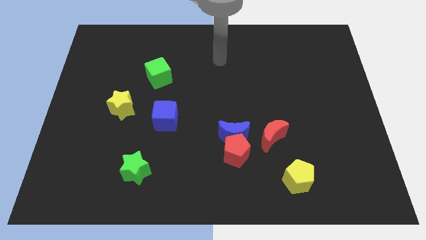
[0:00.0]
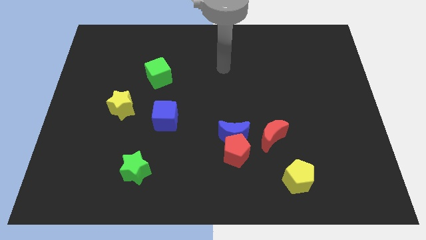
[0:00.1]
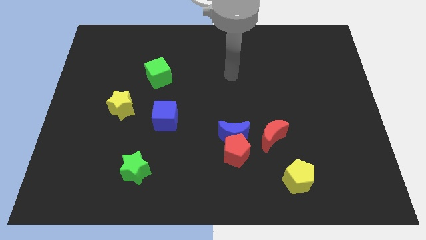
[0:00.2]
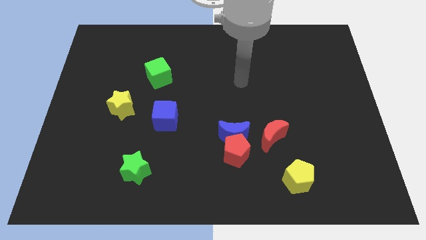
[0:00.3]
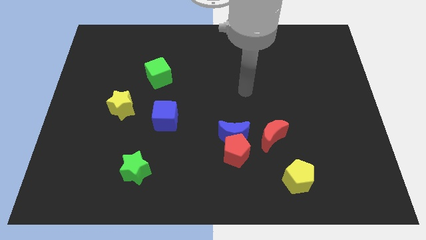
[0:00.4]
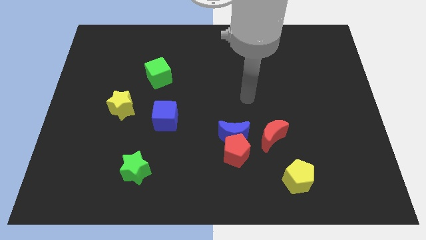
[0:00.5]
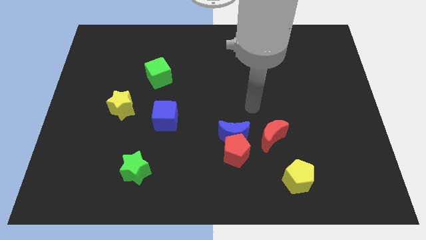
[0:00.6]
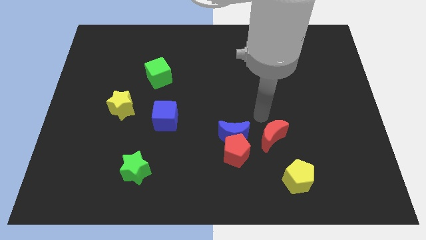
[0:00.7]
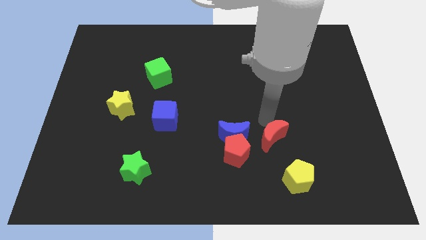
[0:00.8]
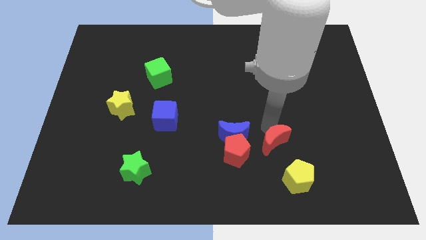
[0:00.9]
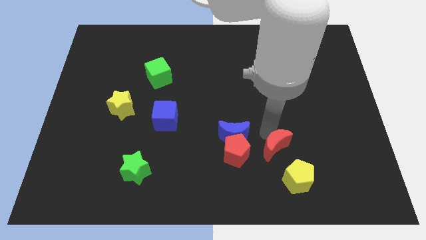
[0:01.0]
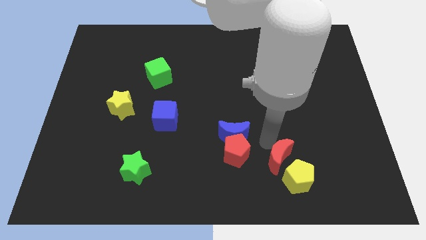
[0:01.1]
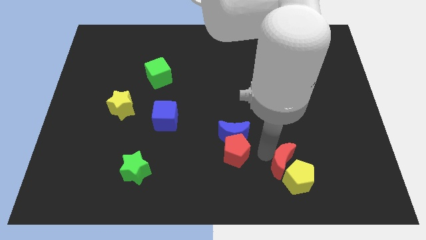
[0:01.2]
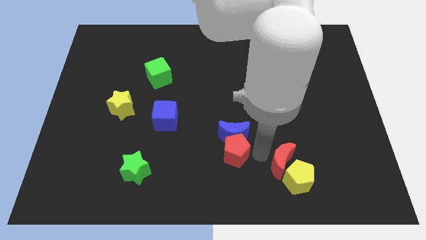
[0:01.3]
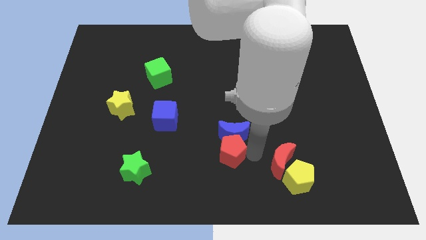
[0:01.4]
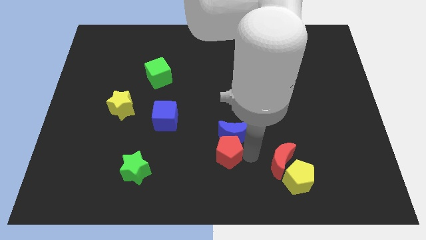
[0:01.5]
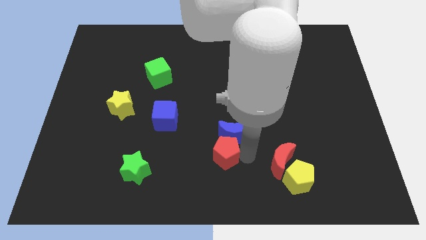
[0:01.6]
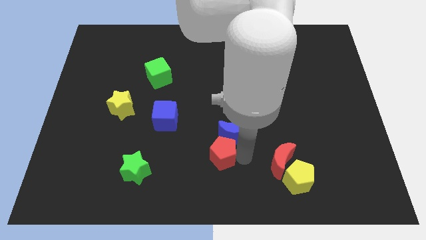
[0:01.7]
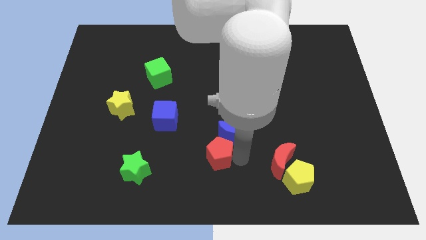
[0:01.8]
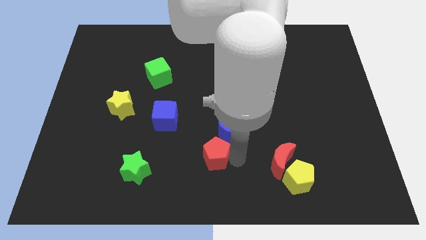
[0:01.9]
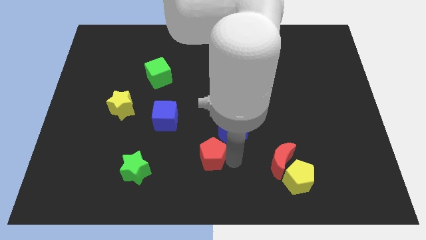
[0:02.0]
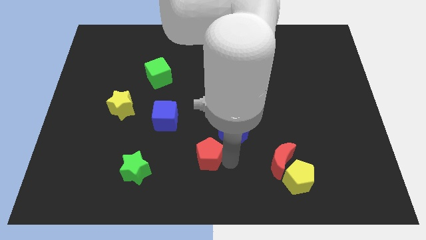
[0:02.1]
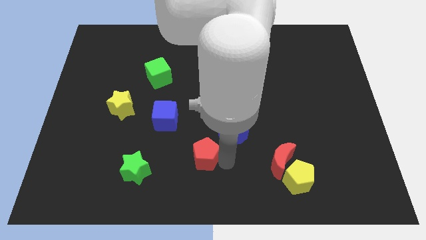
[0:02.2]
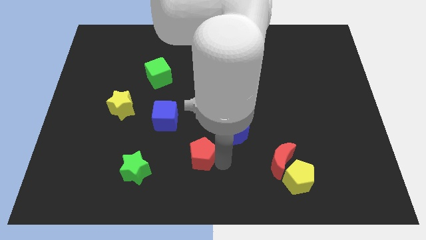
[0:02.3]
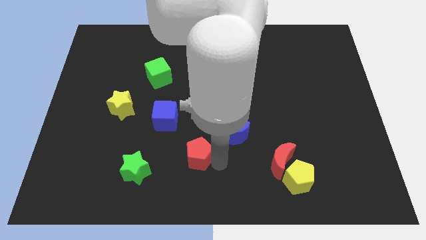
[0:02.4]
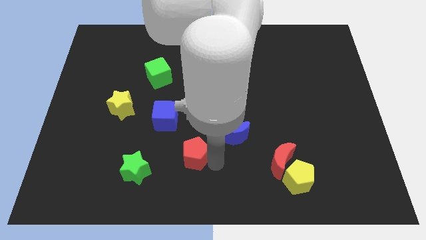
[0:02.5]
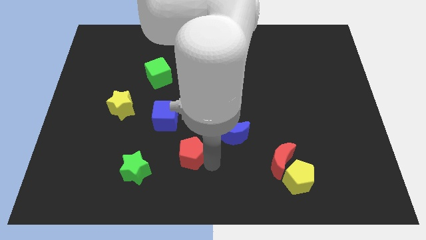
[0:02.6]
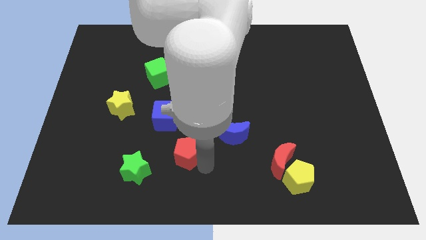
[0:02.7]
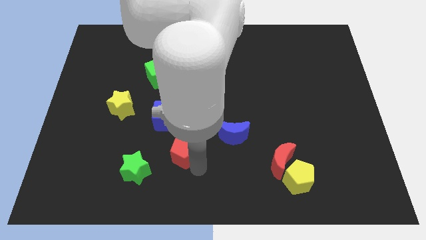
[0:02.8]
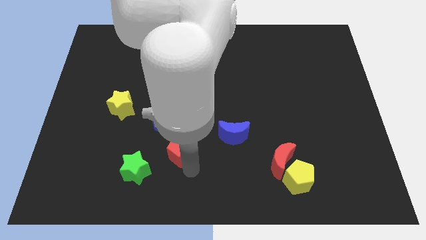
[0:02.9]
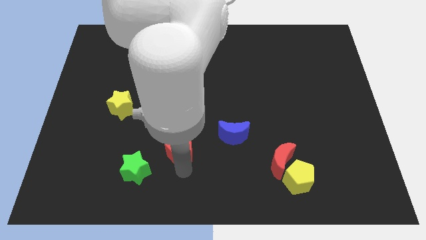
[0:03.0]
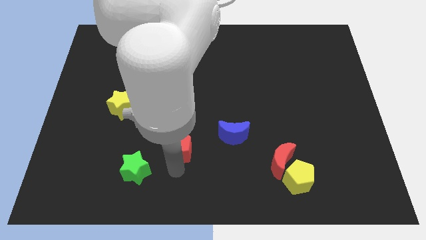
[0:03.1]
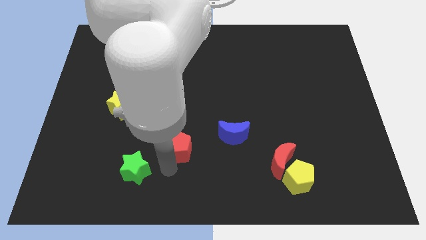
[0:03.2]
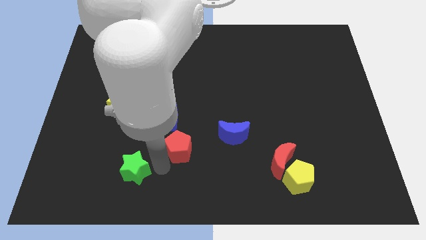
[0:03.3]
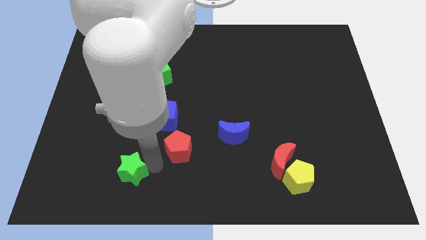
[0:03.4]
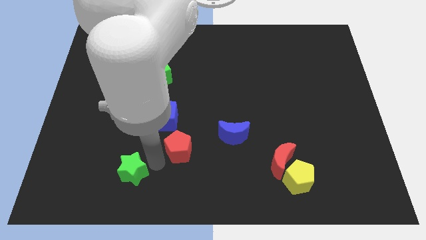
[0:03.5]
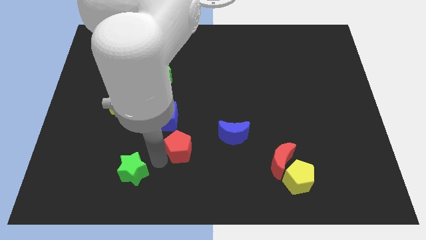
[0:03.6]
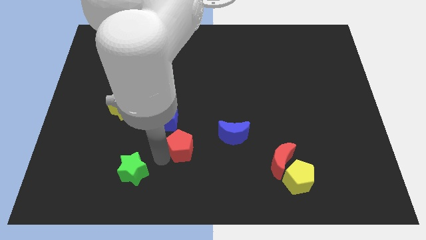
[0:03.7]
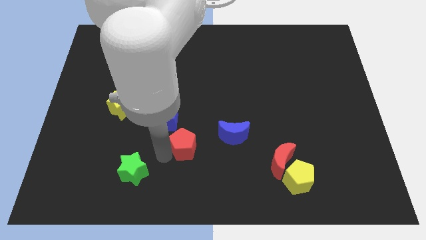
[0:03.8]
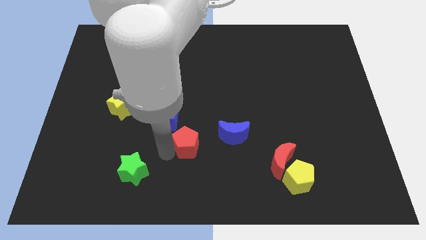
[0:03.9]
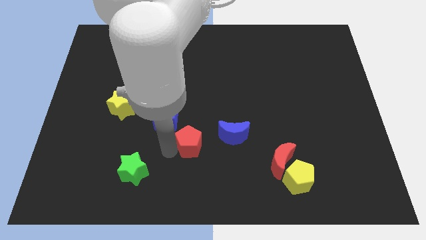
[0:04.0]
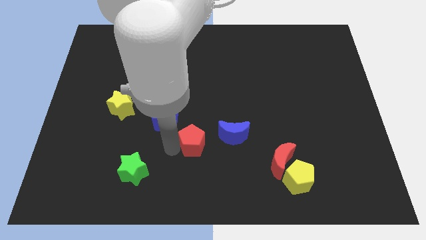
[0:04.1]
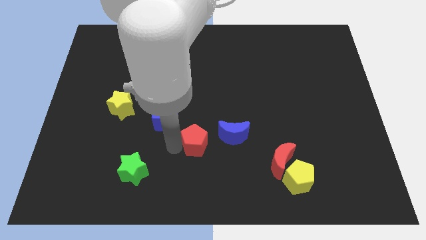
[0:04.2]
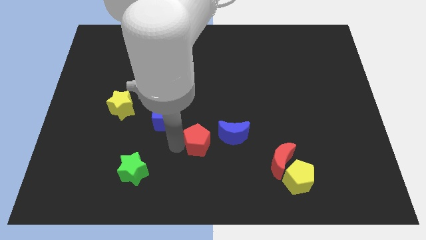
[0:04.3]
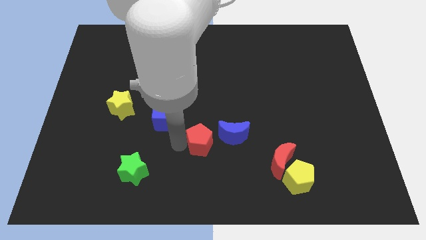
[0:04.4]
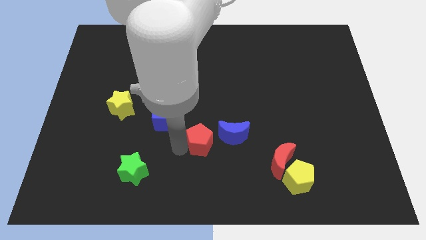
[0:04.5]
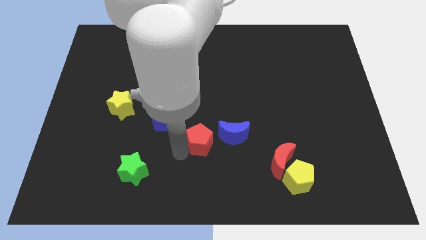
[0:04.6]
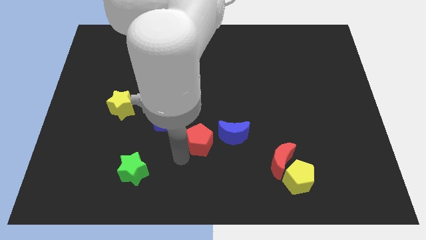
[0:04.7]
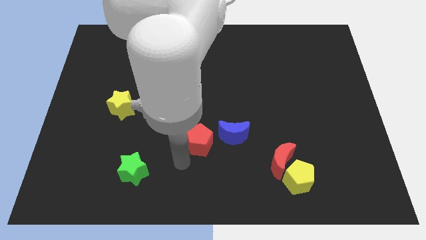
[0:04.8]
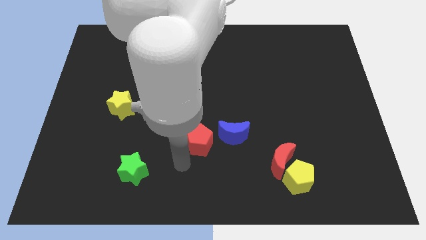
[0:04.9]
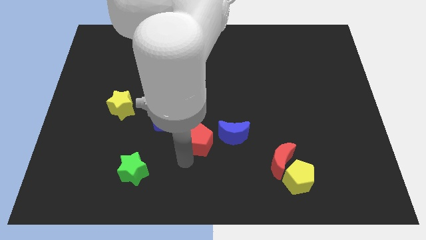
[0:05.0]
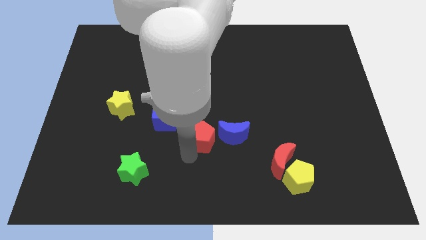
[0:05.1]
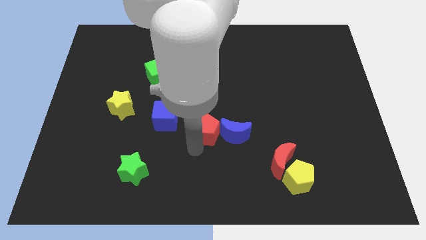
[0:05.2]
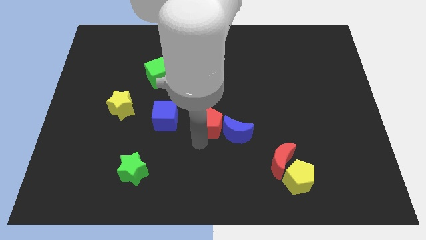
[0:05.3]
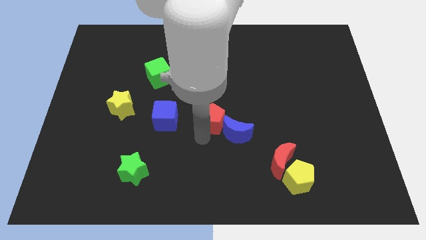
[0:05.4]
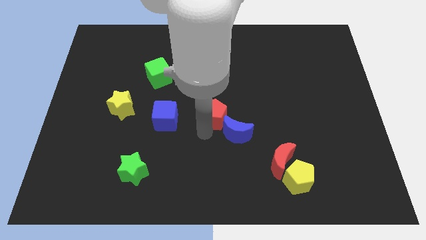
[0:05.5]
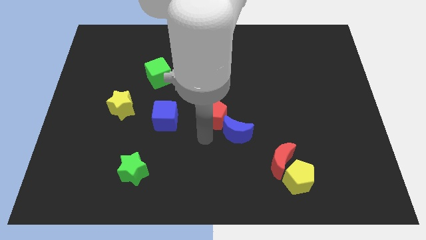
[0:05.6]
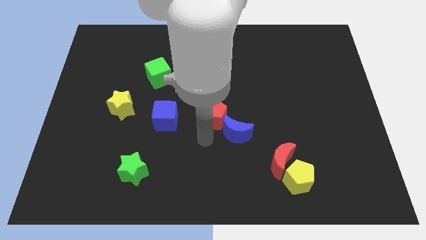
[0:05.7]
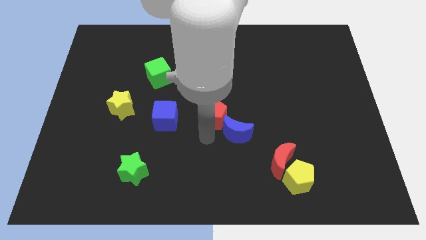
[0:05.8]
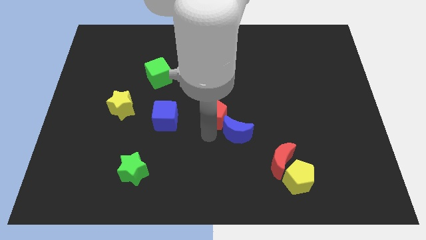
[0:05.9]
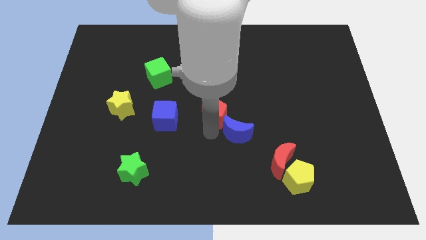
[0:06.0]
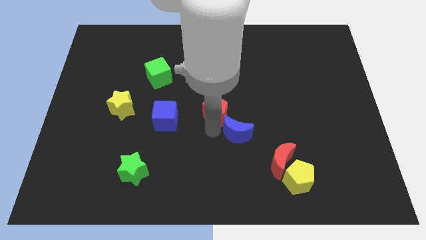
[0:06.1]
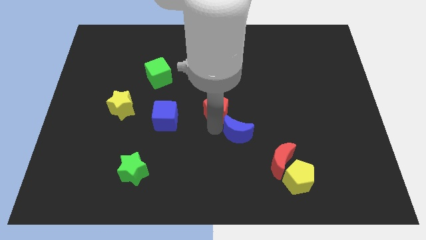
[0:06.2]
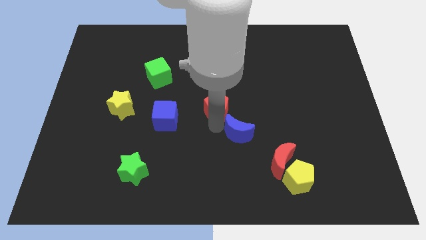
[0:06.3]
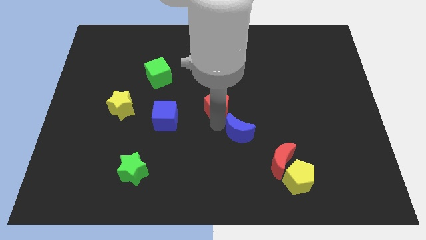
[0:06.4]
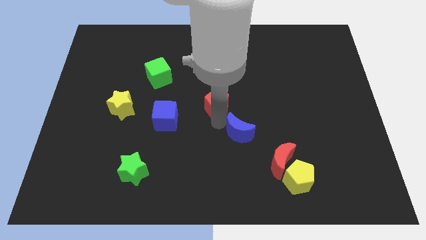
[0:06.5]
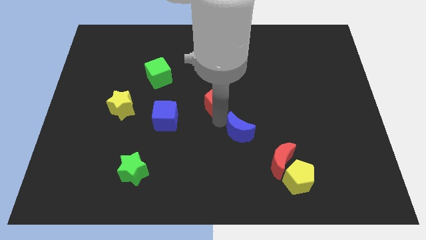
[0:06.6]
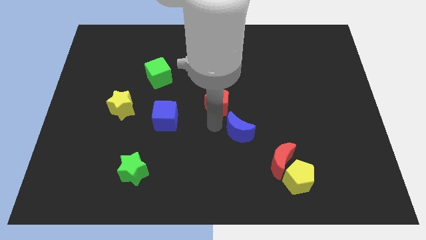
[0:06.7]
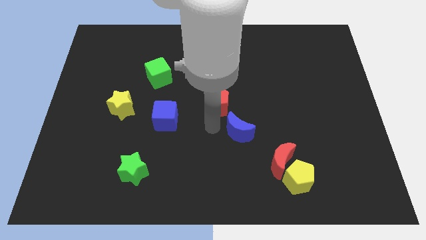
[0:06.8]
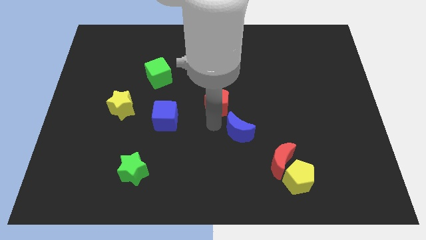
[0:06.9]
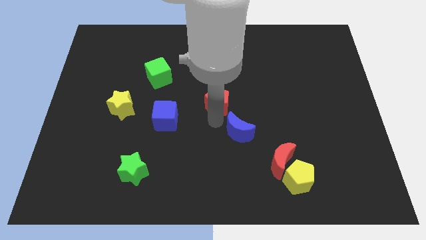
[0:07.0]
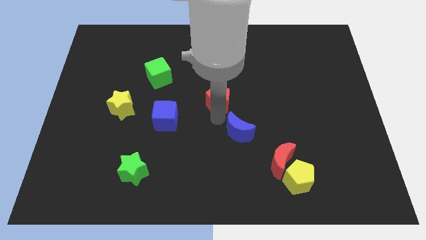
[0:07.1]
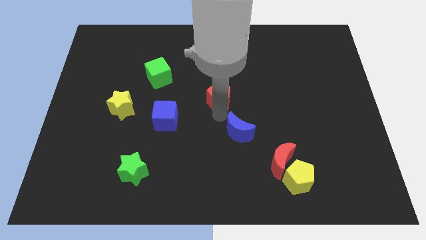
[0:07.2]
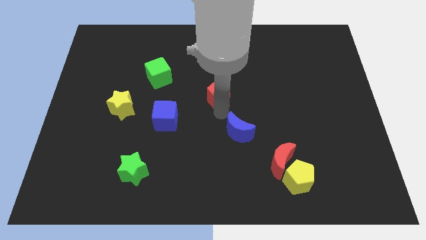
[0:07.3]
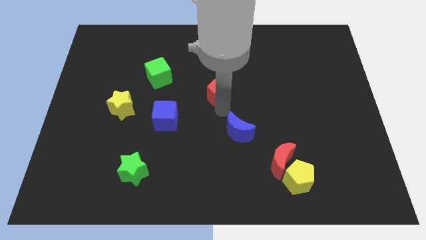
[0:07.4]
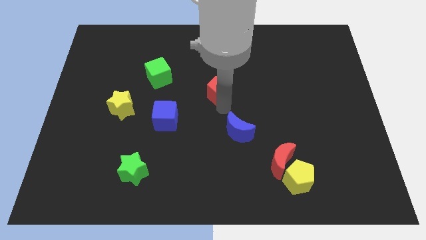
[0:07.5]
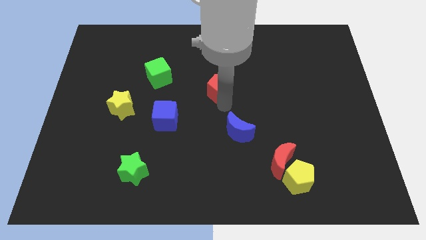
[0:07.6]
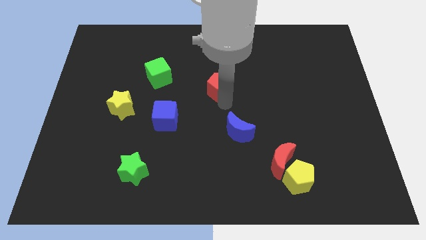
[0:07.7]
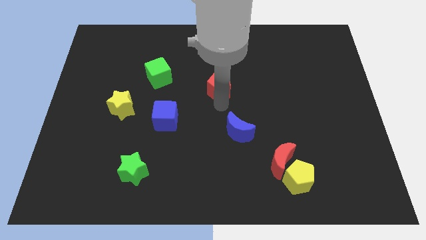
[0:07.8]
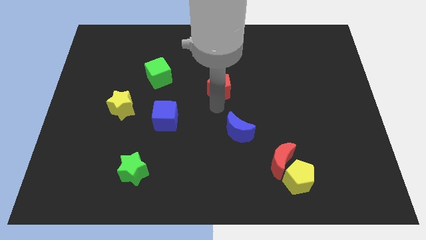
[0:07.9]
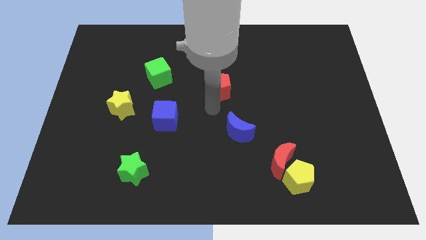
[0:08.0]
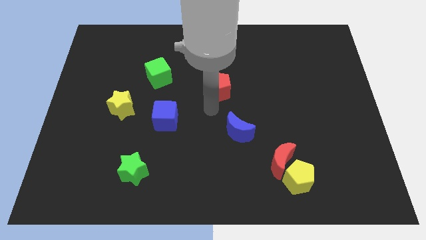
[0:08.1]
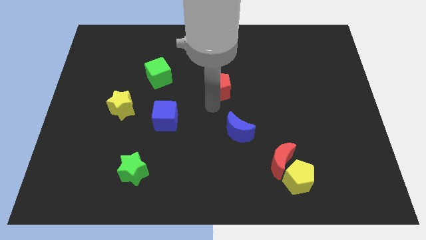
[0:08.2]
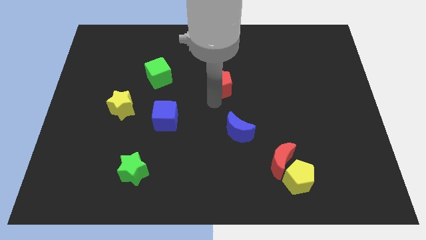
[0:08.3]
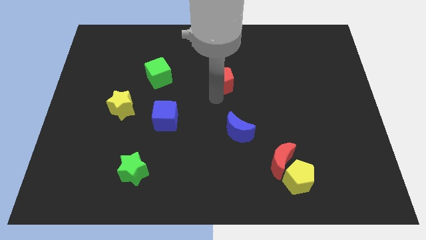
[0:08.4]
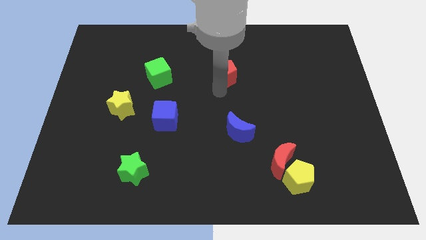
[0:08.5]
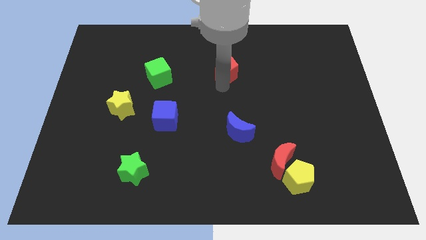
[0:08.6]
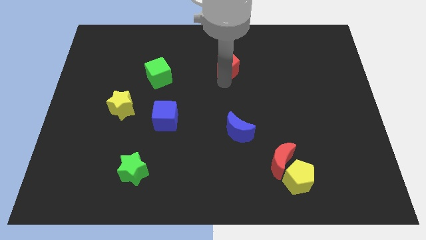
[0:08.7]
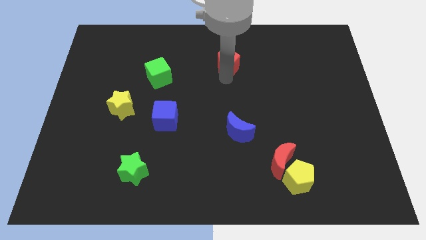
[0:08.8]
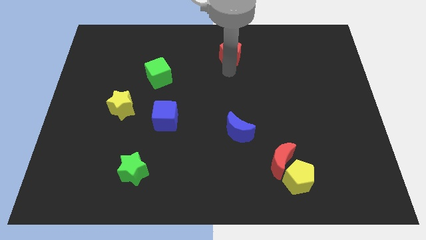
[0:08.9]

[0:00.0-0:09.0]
put the red pentagon to the top
